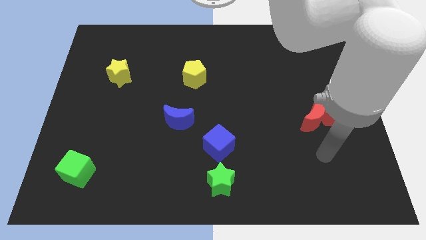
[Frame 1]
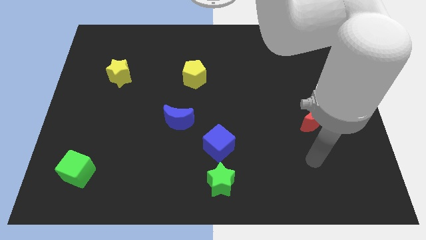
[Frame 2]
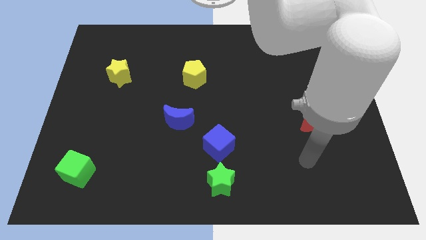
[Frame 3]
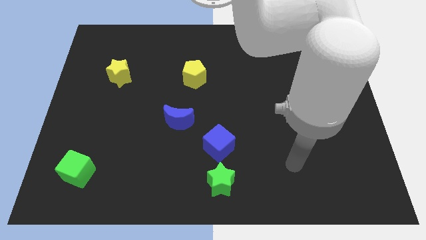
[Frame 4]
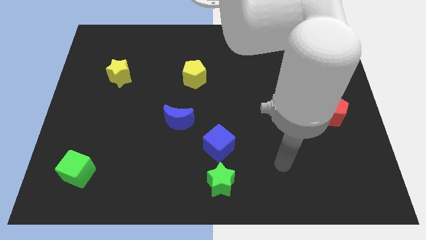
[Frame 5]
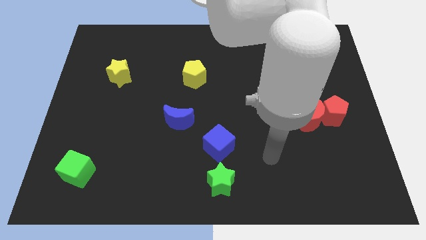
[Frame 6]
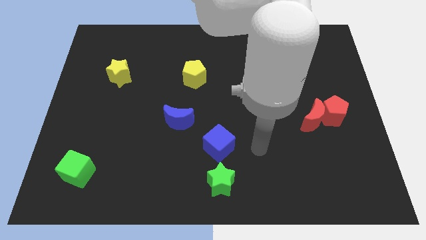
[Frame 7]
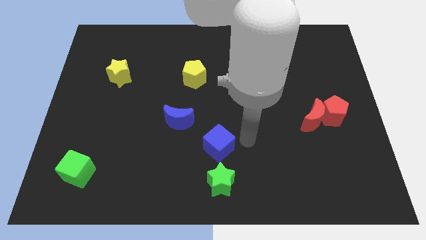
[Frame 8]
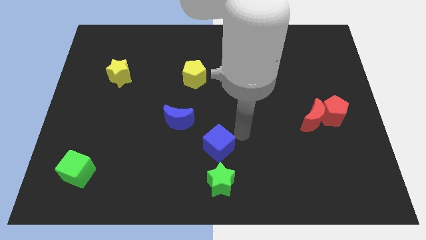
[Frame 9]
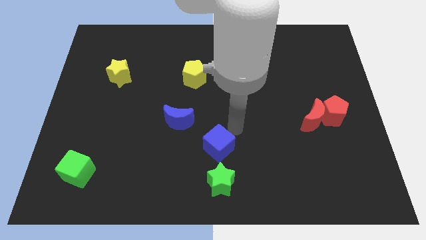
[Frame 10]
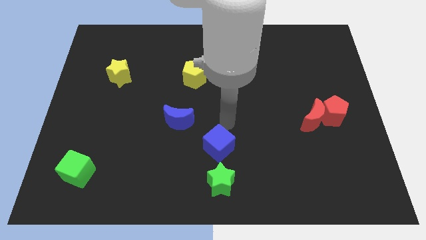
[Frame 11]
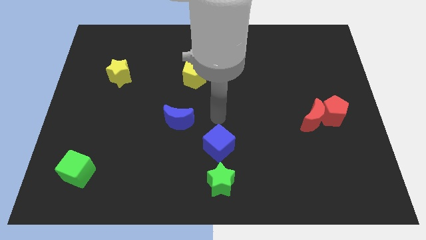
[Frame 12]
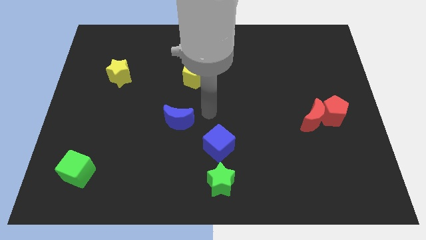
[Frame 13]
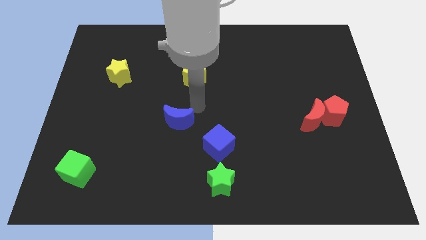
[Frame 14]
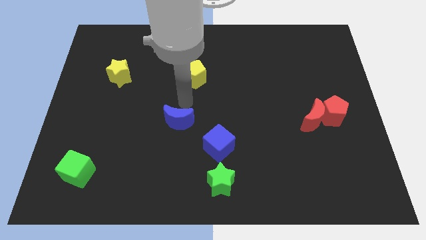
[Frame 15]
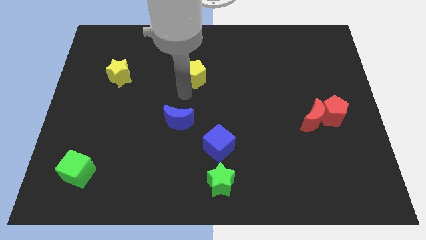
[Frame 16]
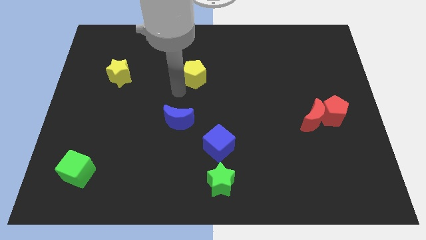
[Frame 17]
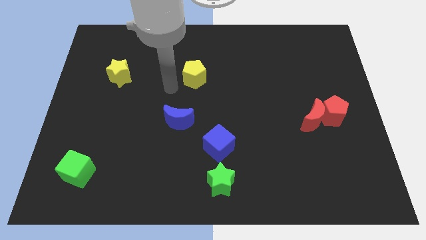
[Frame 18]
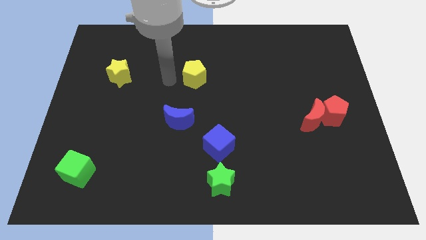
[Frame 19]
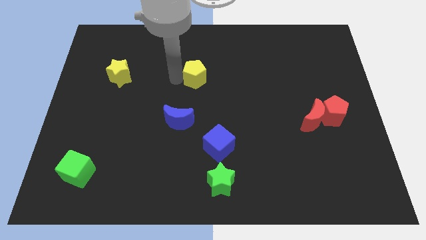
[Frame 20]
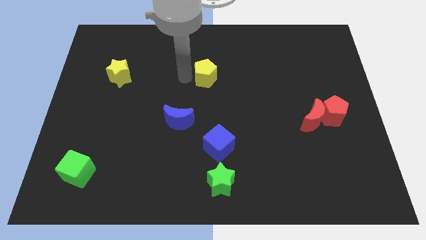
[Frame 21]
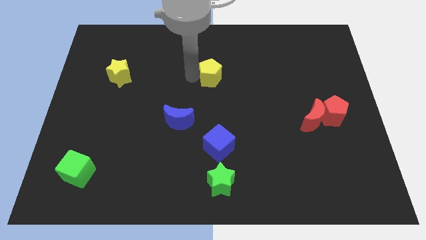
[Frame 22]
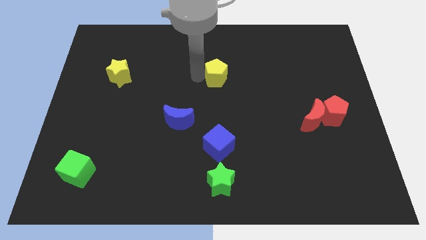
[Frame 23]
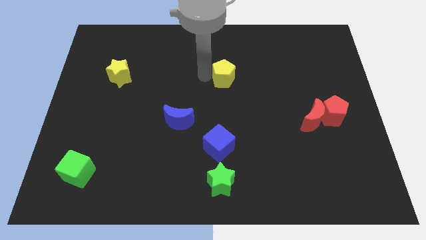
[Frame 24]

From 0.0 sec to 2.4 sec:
push the yellow pentagon a little bit to the right

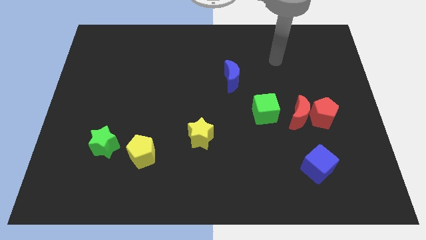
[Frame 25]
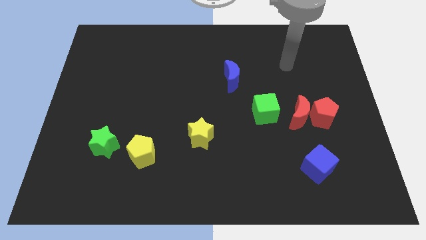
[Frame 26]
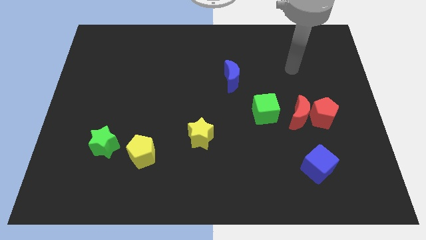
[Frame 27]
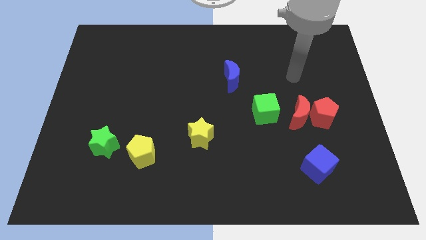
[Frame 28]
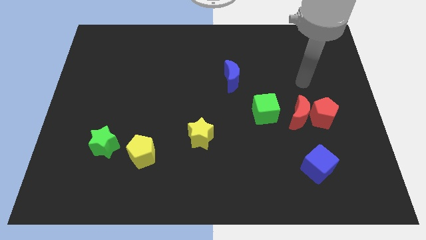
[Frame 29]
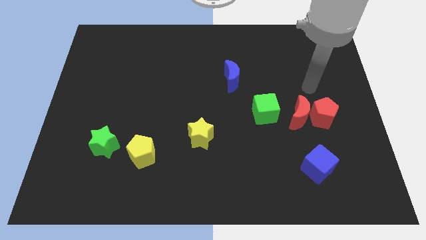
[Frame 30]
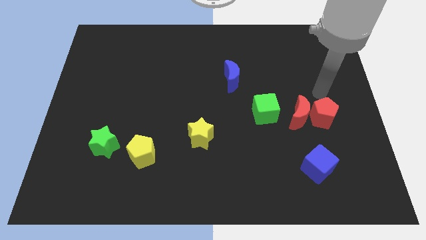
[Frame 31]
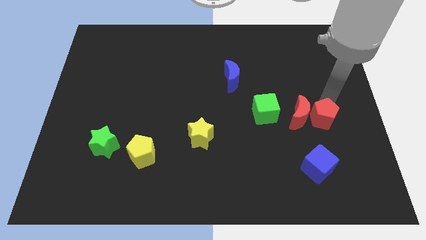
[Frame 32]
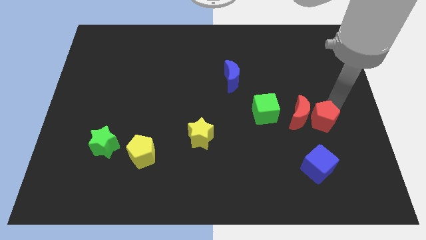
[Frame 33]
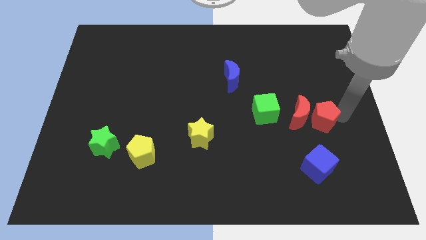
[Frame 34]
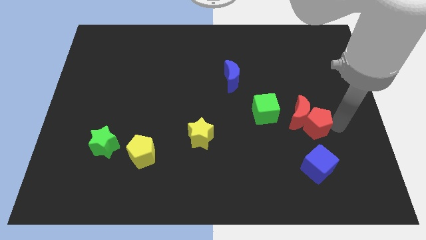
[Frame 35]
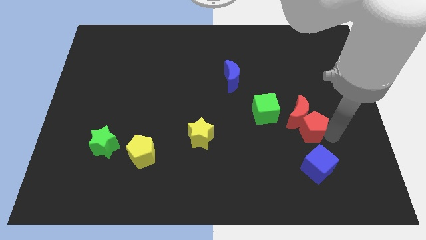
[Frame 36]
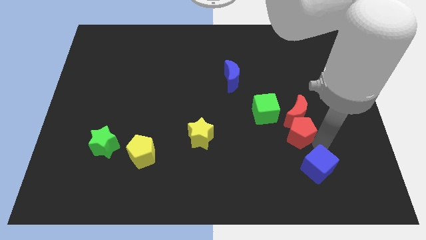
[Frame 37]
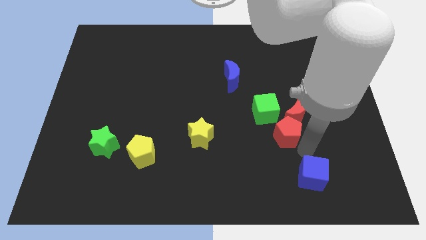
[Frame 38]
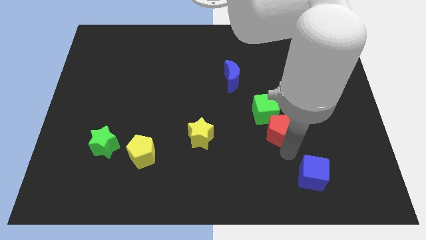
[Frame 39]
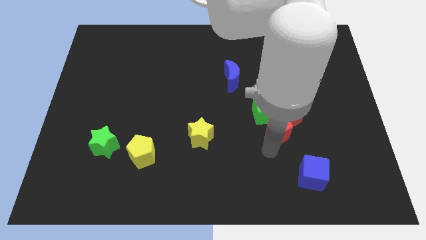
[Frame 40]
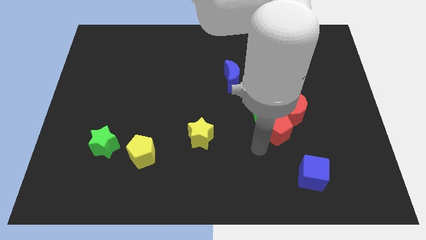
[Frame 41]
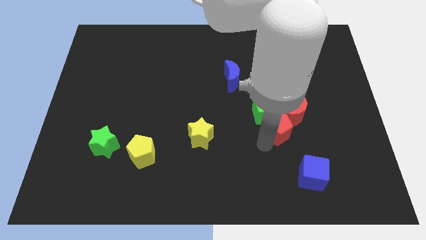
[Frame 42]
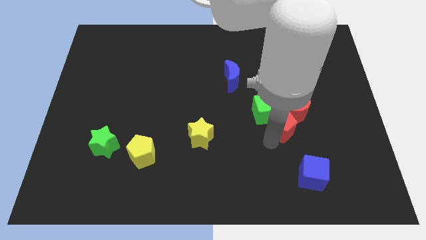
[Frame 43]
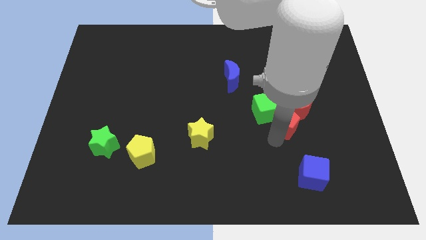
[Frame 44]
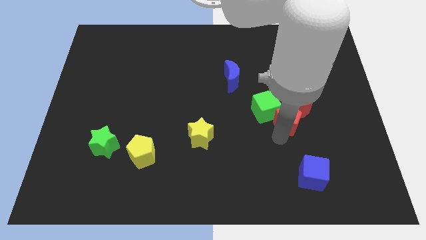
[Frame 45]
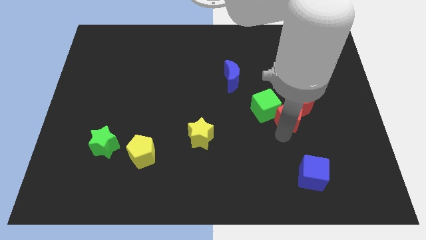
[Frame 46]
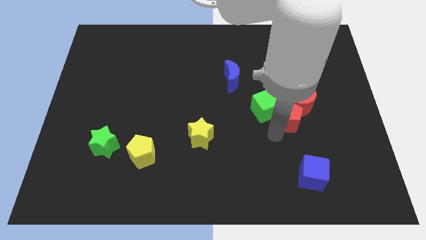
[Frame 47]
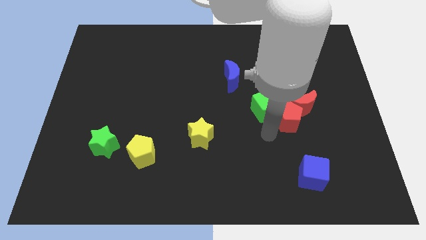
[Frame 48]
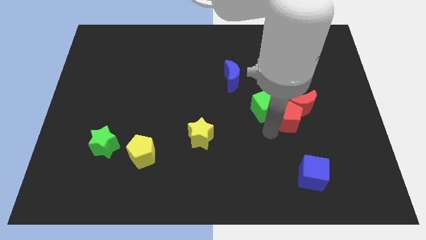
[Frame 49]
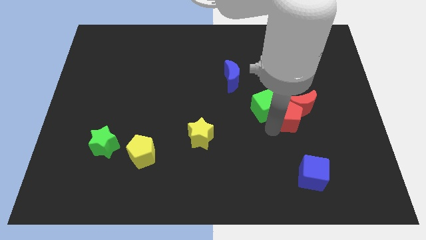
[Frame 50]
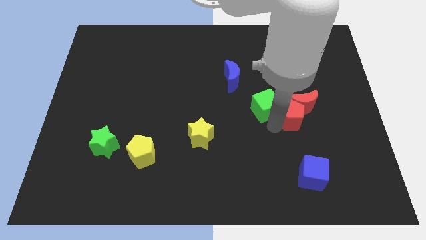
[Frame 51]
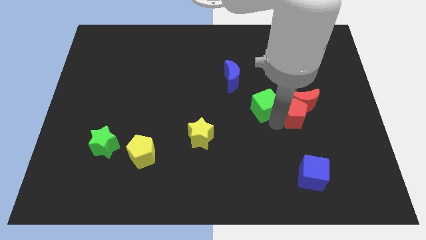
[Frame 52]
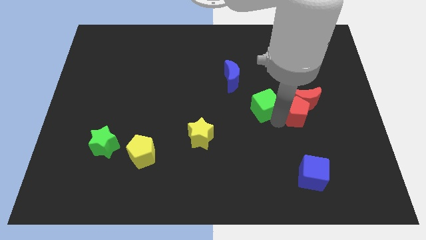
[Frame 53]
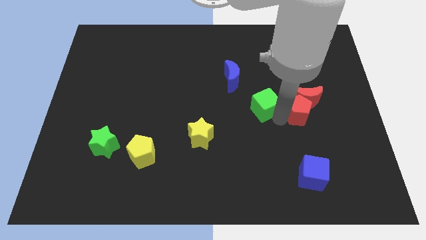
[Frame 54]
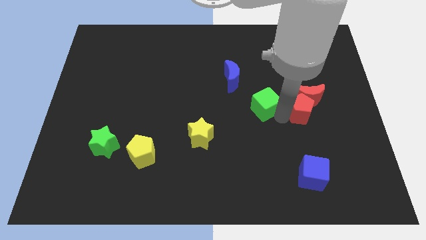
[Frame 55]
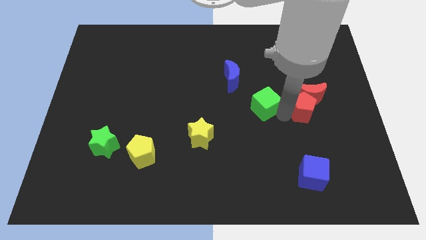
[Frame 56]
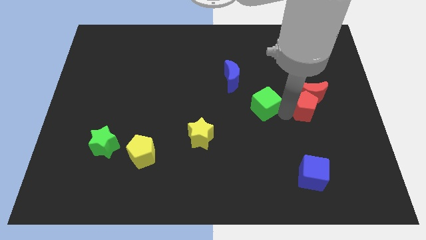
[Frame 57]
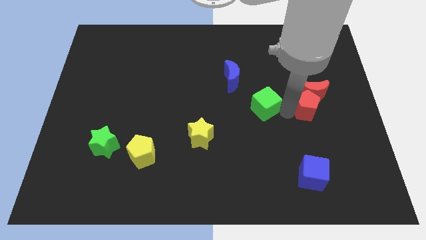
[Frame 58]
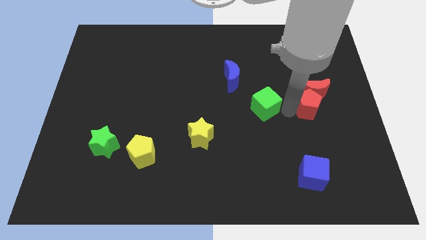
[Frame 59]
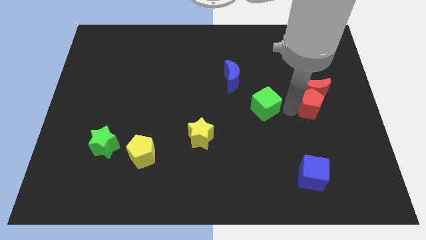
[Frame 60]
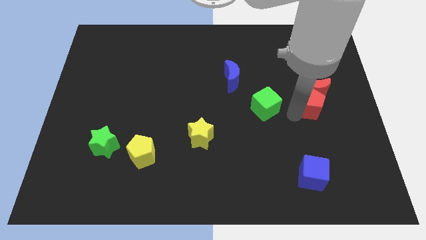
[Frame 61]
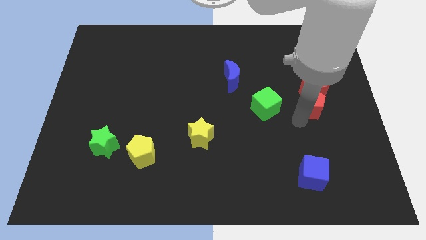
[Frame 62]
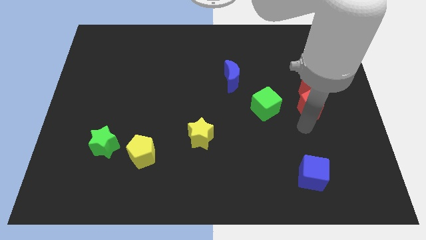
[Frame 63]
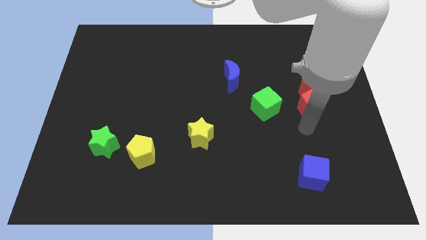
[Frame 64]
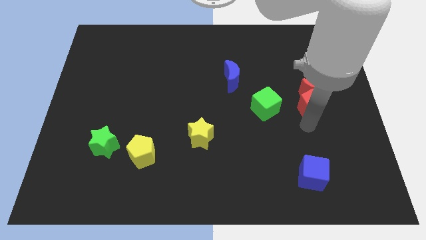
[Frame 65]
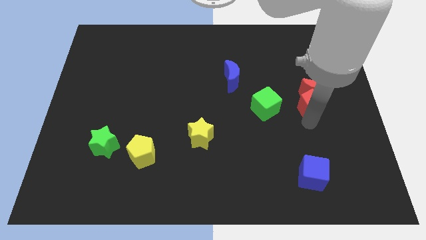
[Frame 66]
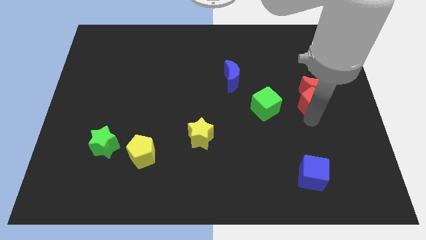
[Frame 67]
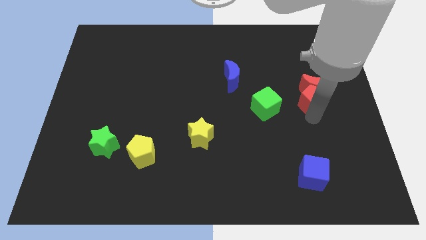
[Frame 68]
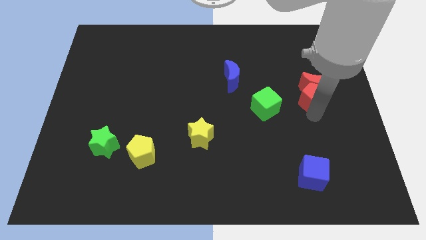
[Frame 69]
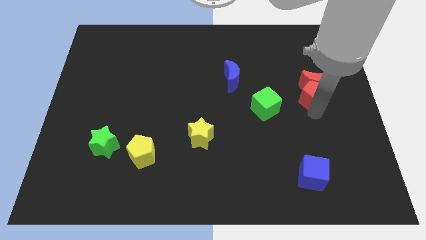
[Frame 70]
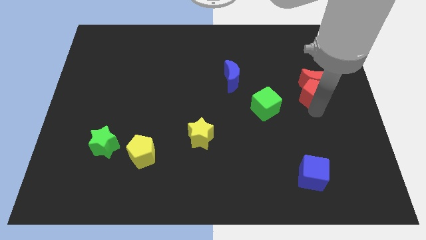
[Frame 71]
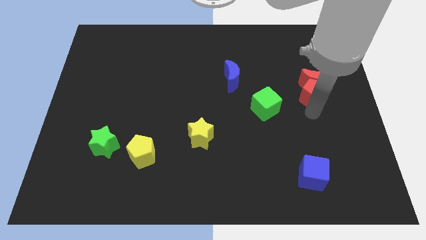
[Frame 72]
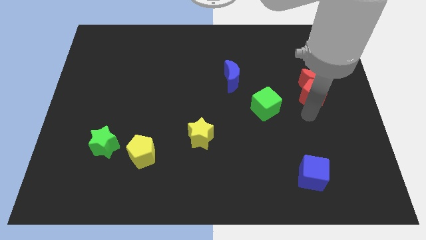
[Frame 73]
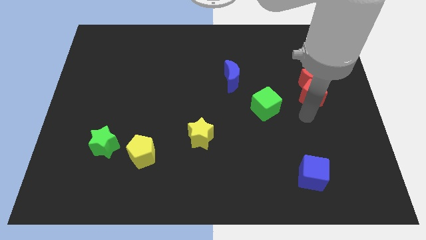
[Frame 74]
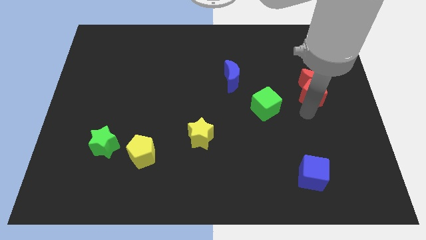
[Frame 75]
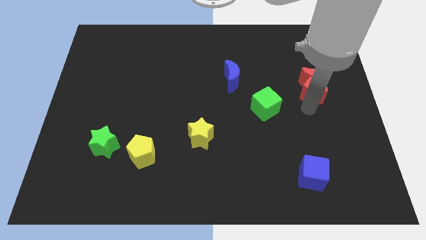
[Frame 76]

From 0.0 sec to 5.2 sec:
slide the red pentagon a little bit upwards

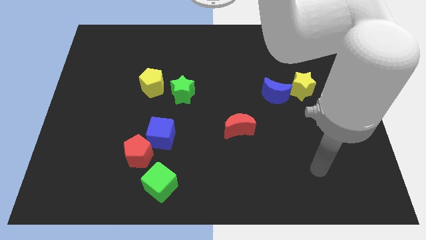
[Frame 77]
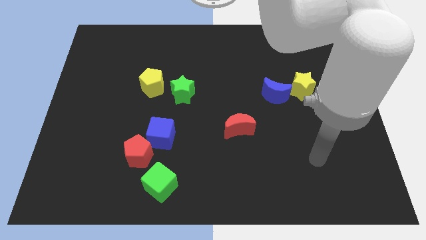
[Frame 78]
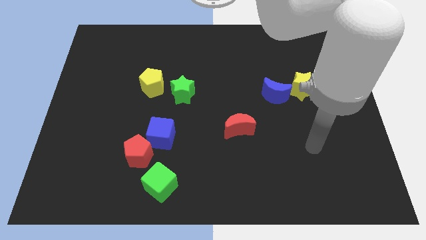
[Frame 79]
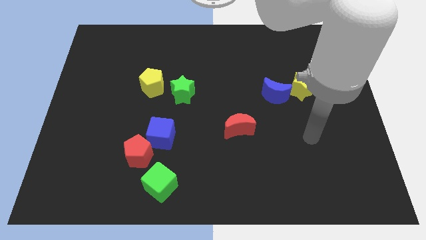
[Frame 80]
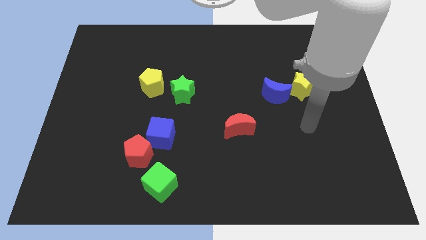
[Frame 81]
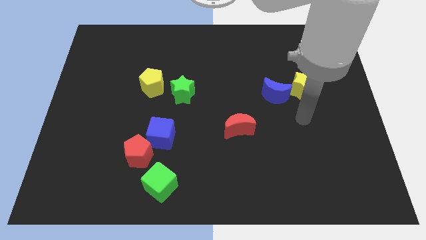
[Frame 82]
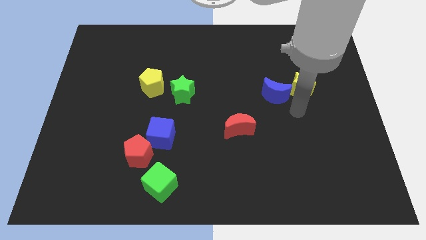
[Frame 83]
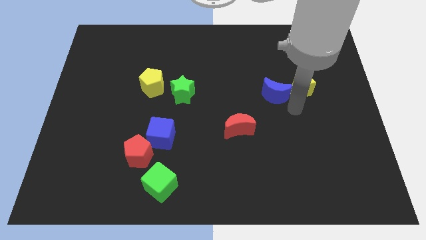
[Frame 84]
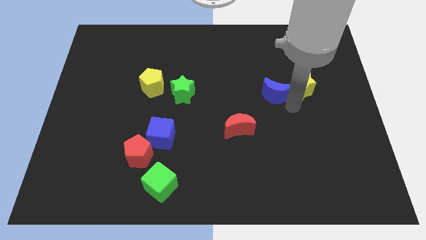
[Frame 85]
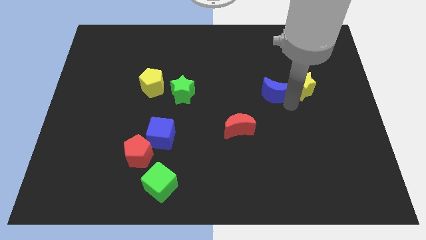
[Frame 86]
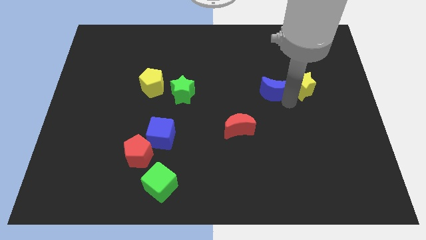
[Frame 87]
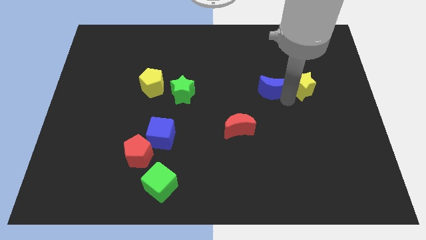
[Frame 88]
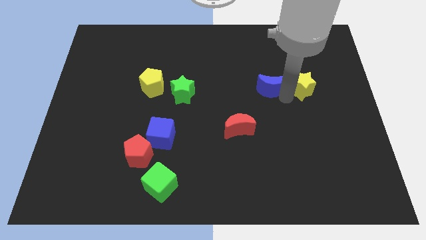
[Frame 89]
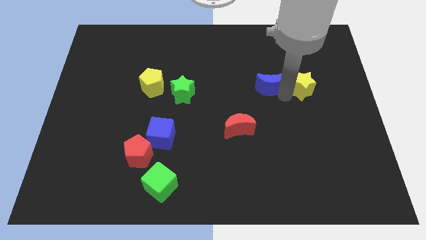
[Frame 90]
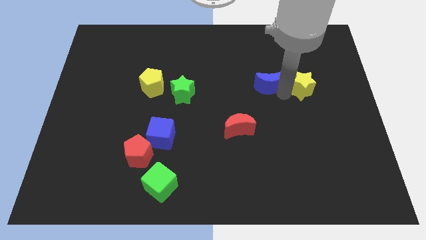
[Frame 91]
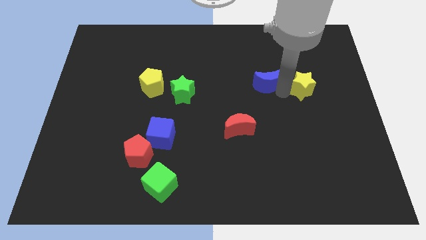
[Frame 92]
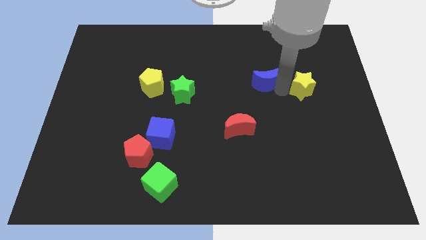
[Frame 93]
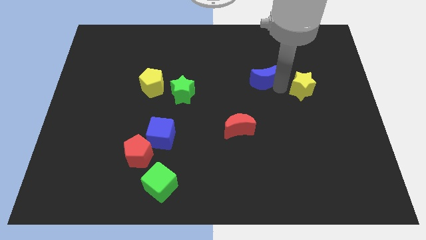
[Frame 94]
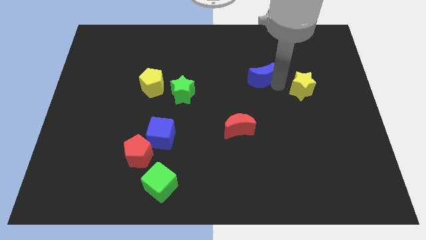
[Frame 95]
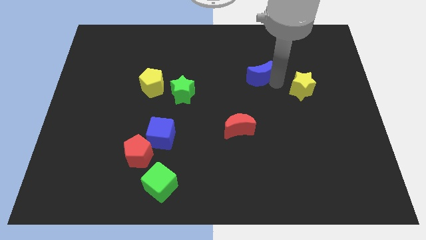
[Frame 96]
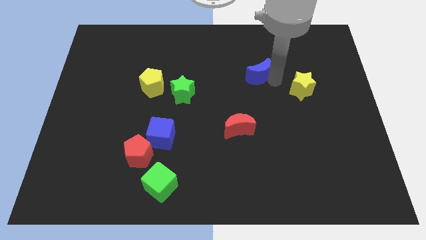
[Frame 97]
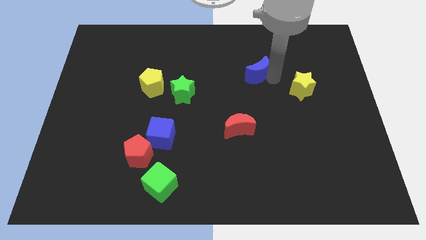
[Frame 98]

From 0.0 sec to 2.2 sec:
slide the blue moon a little bit diagonally upwards and to the left
